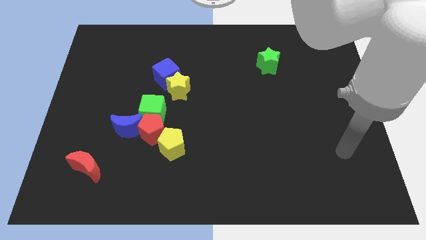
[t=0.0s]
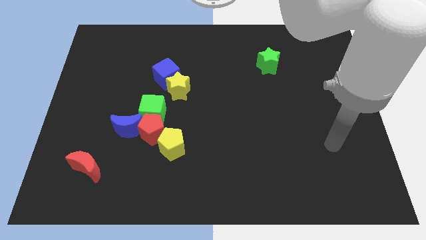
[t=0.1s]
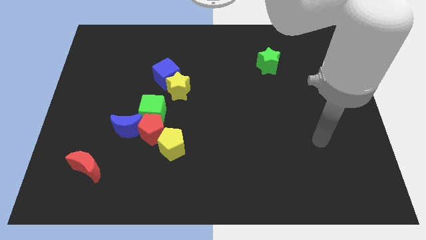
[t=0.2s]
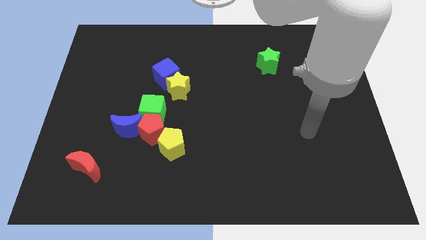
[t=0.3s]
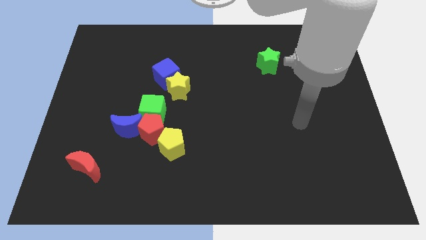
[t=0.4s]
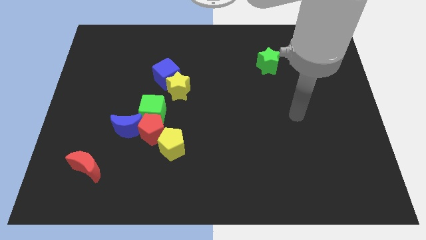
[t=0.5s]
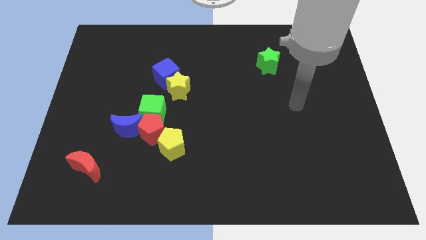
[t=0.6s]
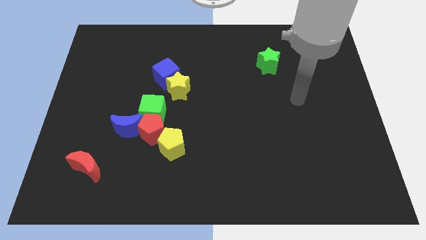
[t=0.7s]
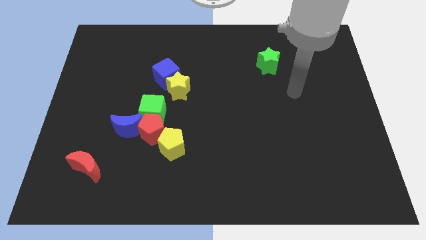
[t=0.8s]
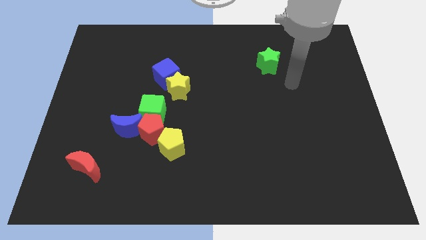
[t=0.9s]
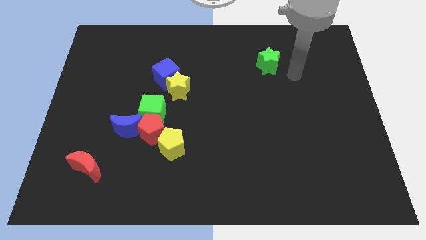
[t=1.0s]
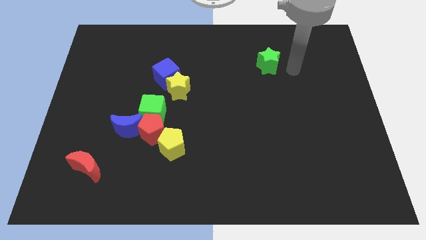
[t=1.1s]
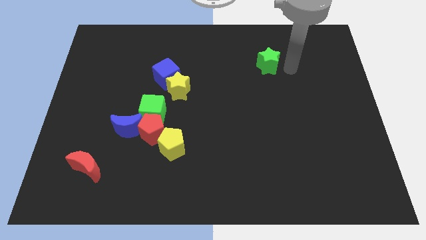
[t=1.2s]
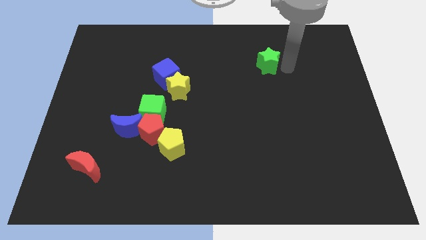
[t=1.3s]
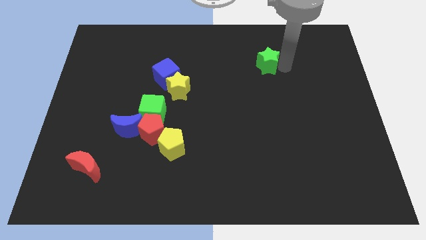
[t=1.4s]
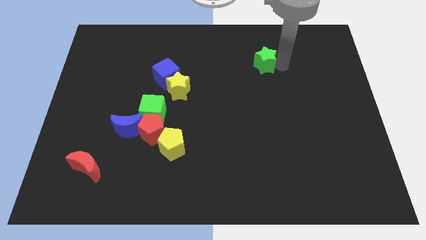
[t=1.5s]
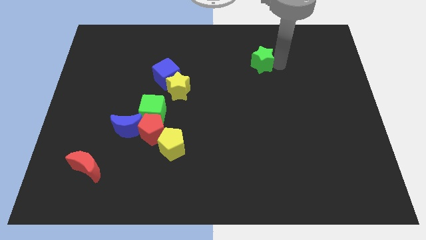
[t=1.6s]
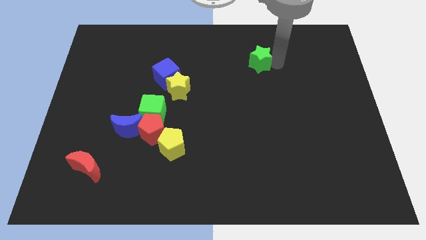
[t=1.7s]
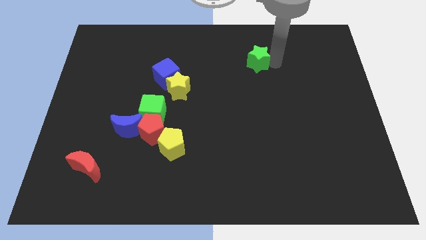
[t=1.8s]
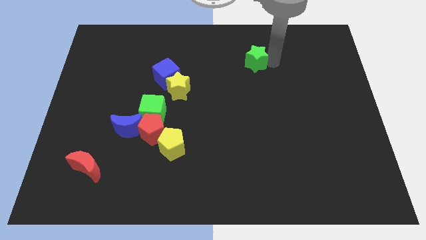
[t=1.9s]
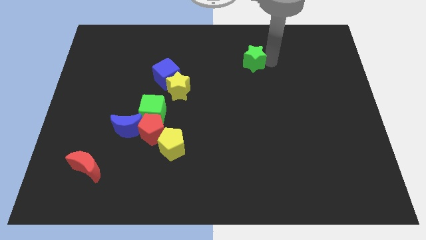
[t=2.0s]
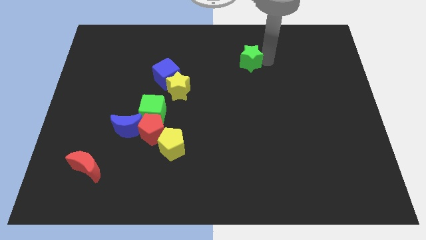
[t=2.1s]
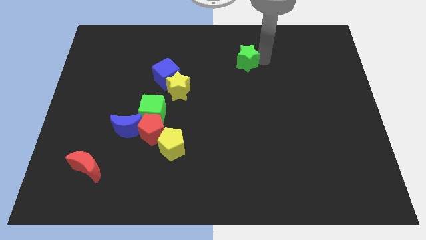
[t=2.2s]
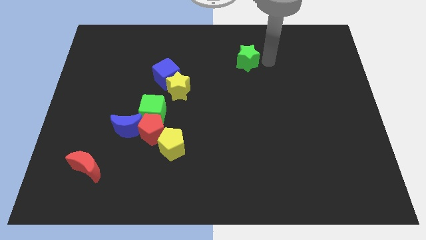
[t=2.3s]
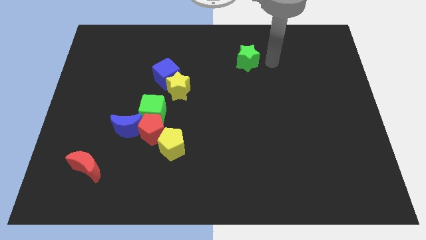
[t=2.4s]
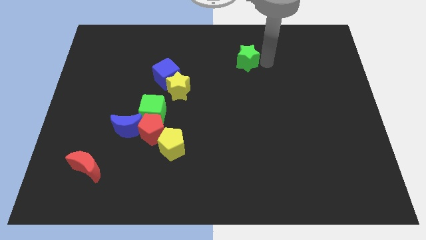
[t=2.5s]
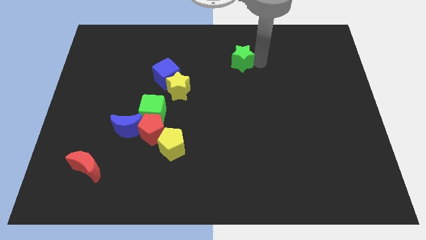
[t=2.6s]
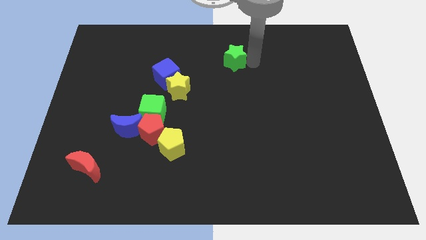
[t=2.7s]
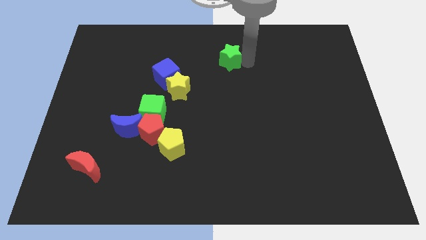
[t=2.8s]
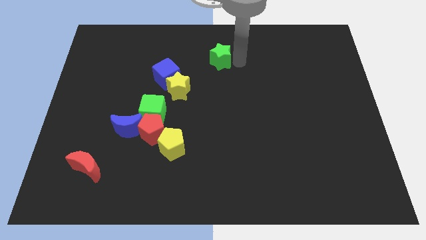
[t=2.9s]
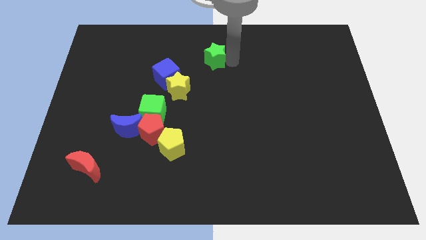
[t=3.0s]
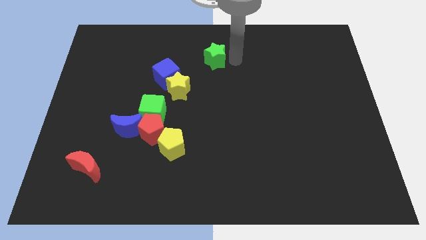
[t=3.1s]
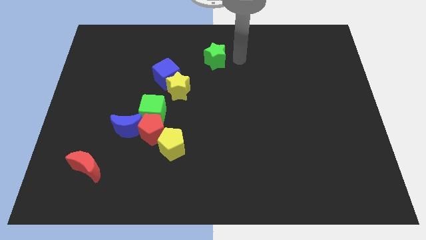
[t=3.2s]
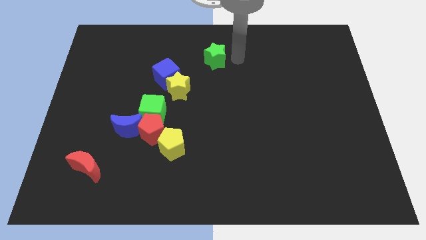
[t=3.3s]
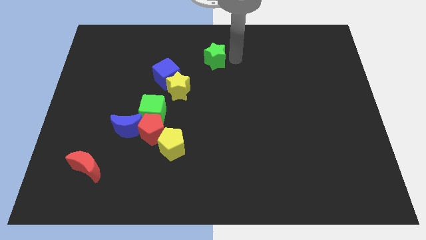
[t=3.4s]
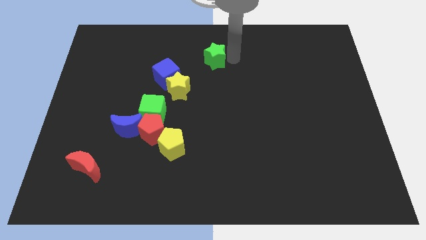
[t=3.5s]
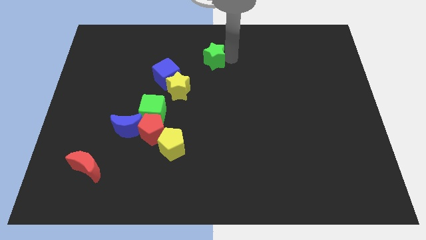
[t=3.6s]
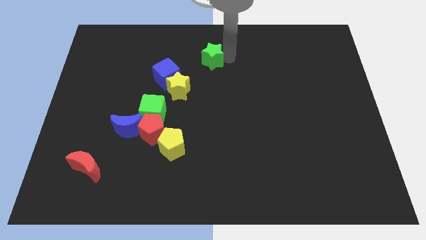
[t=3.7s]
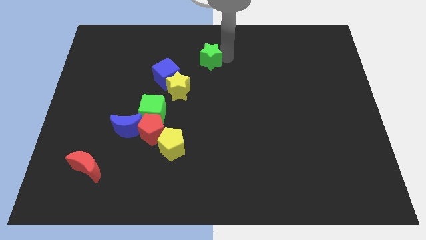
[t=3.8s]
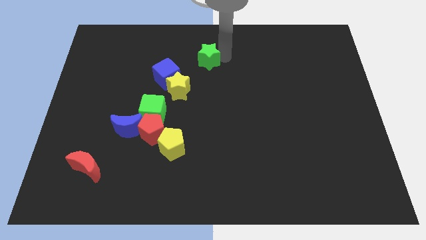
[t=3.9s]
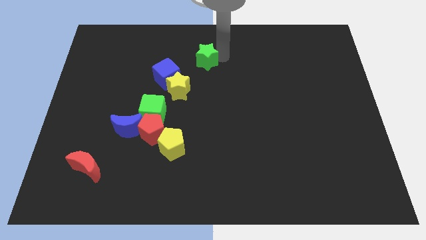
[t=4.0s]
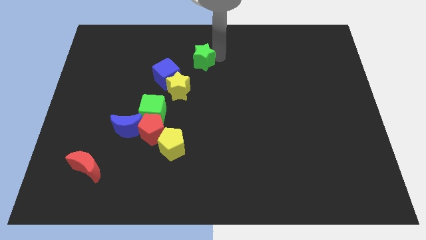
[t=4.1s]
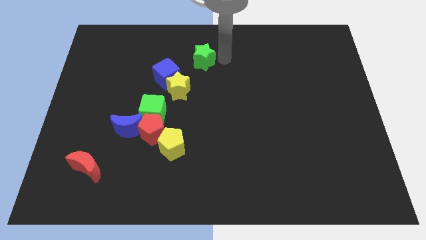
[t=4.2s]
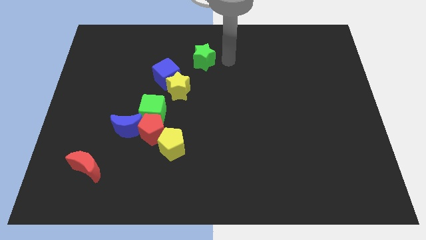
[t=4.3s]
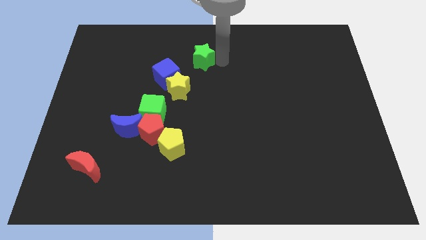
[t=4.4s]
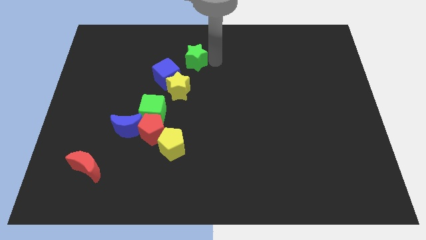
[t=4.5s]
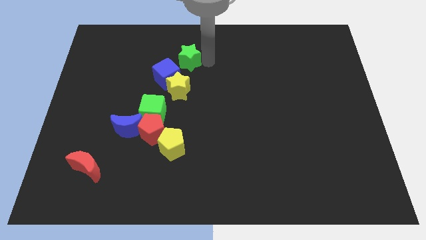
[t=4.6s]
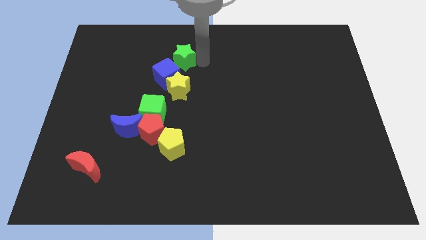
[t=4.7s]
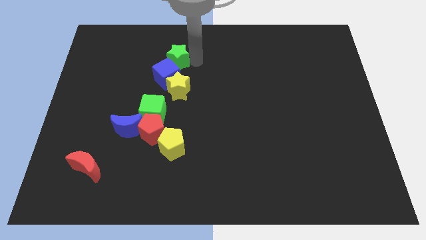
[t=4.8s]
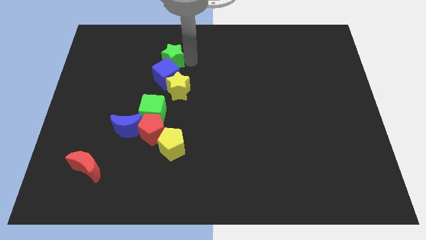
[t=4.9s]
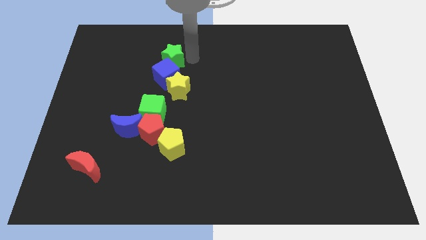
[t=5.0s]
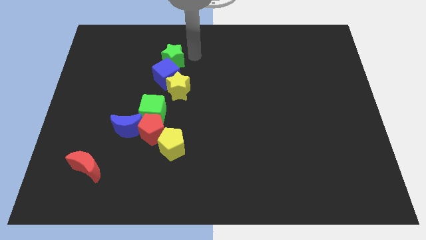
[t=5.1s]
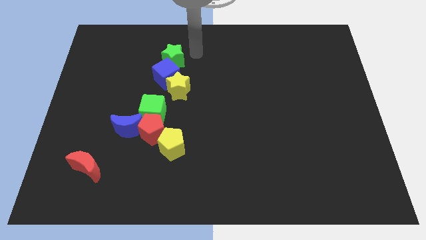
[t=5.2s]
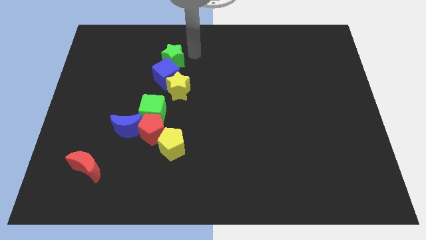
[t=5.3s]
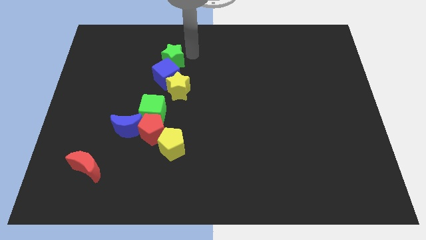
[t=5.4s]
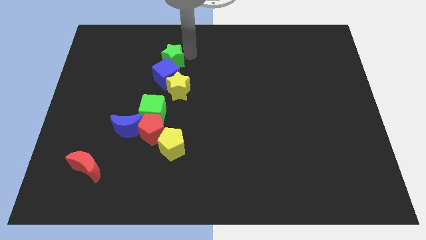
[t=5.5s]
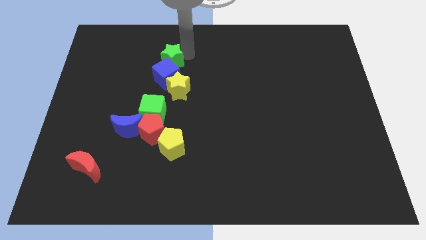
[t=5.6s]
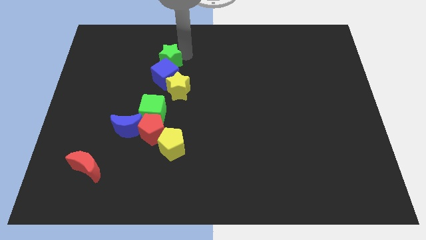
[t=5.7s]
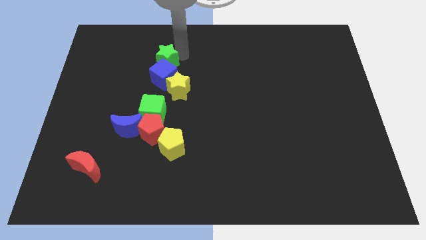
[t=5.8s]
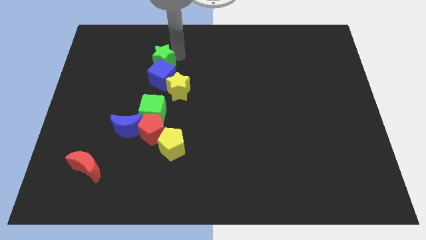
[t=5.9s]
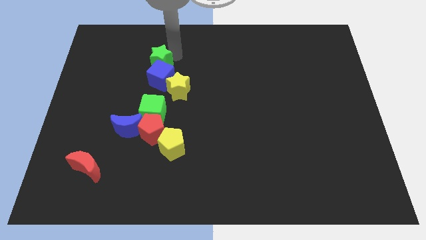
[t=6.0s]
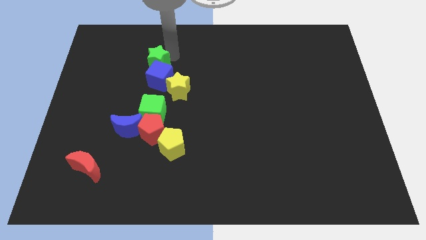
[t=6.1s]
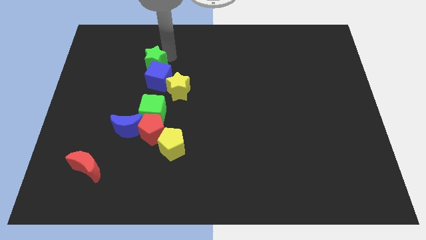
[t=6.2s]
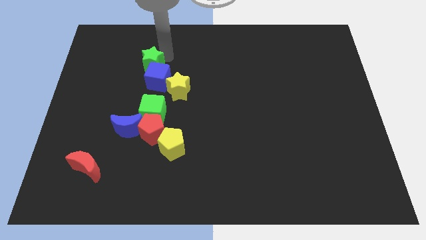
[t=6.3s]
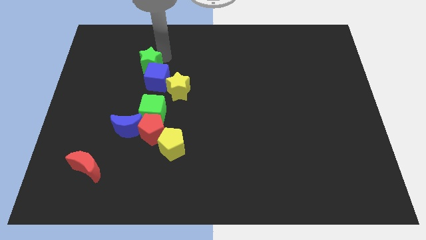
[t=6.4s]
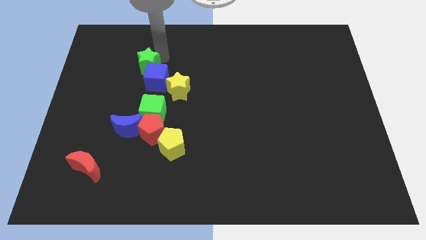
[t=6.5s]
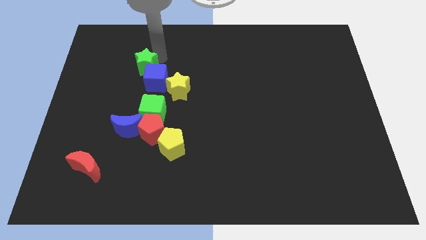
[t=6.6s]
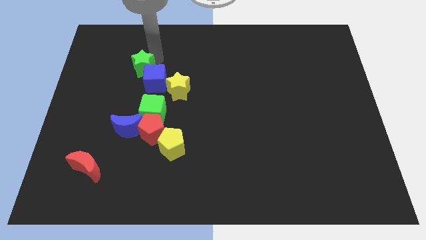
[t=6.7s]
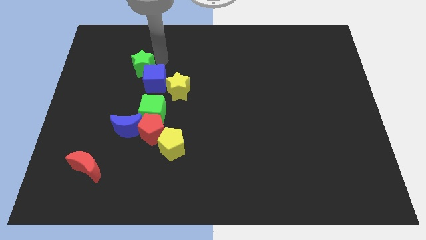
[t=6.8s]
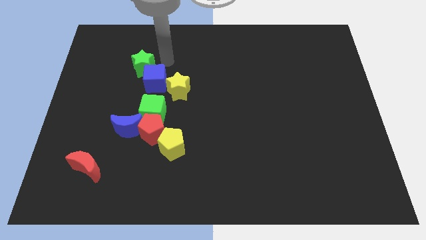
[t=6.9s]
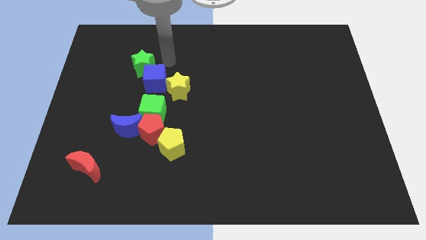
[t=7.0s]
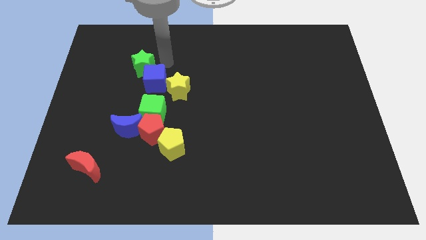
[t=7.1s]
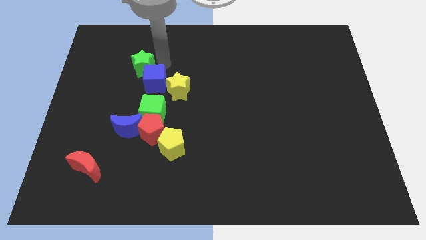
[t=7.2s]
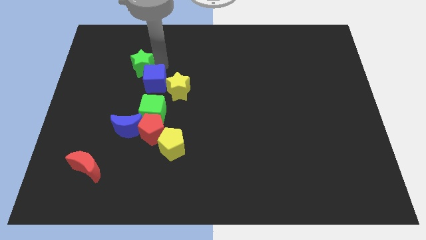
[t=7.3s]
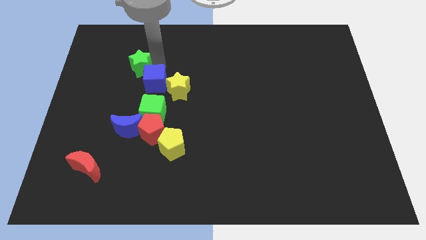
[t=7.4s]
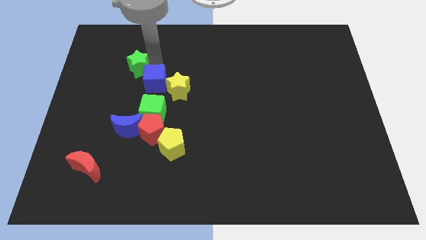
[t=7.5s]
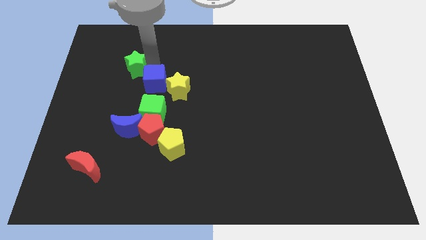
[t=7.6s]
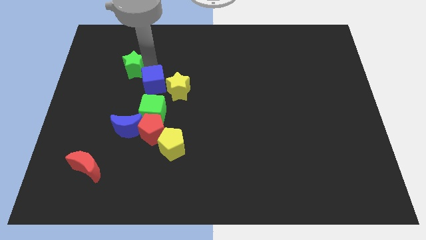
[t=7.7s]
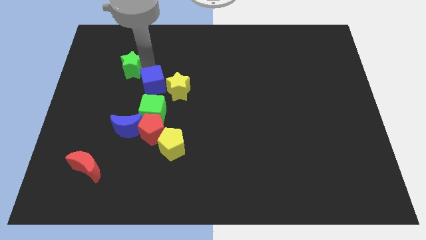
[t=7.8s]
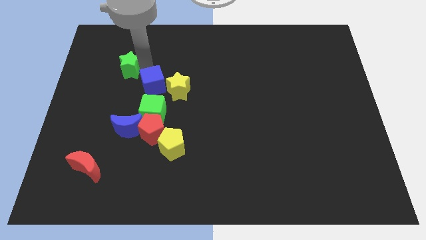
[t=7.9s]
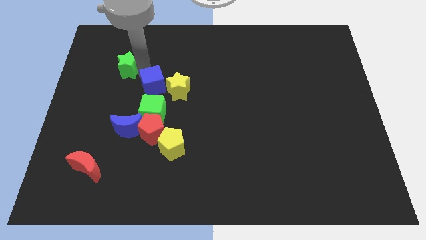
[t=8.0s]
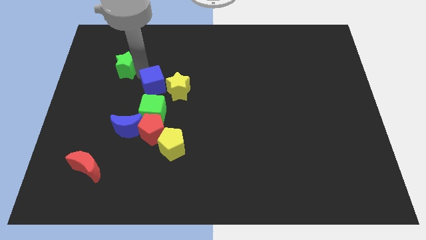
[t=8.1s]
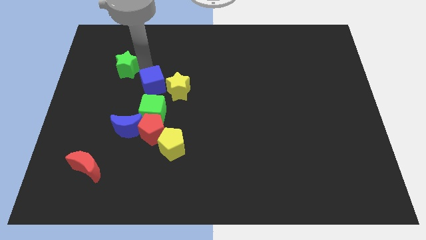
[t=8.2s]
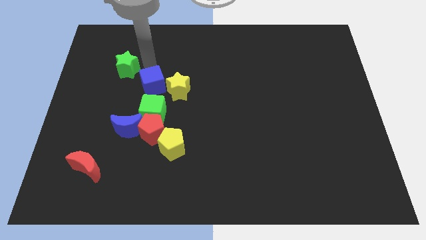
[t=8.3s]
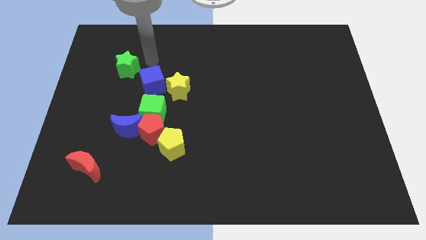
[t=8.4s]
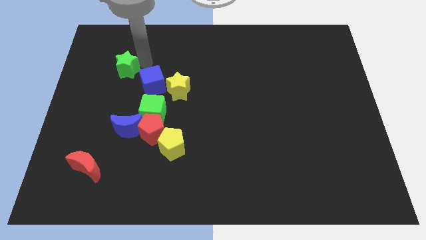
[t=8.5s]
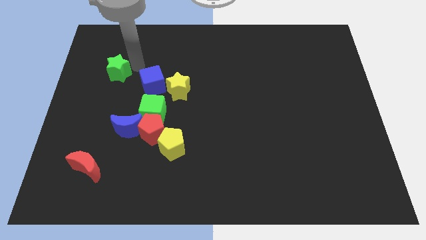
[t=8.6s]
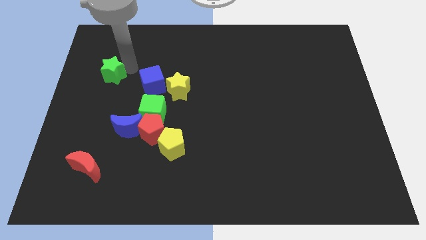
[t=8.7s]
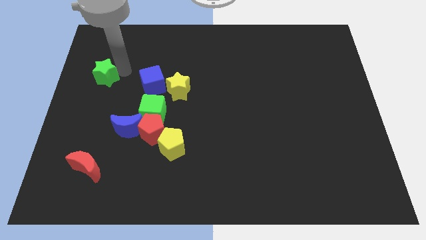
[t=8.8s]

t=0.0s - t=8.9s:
push the green star to the left side of the board
